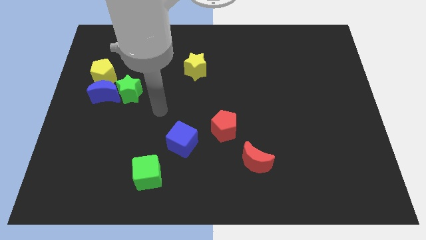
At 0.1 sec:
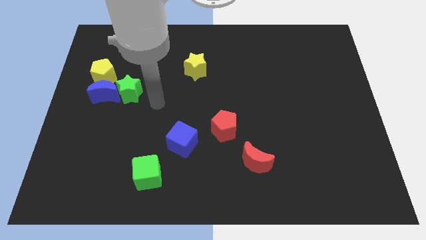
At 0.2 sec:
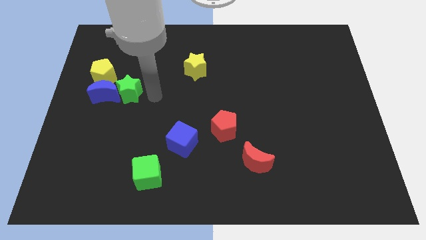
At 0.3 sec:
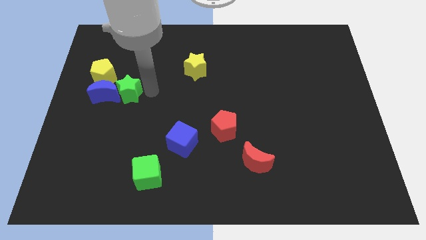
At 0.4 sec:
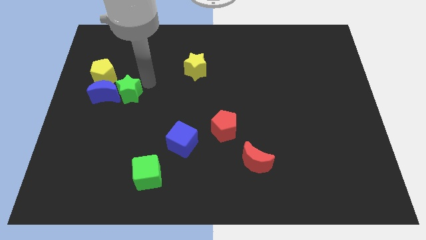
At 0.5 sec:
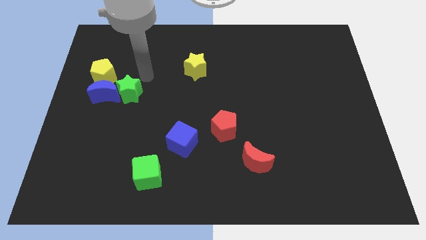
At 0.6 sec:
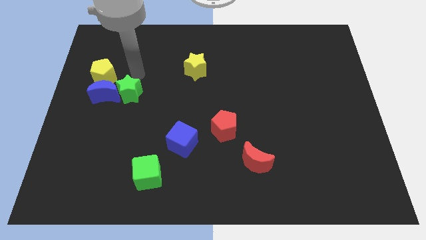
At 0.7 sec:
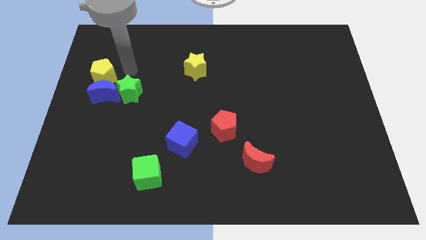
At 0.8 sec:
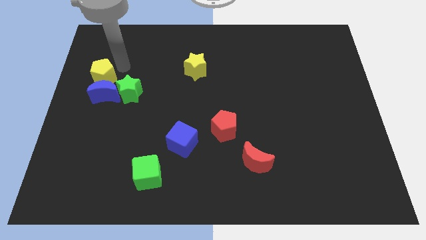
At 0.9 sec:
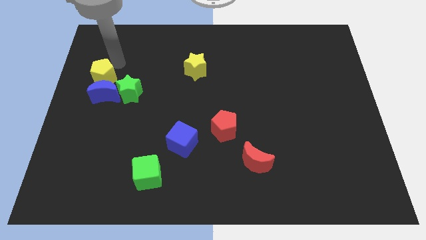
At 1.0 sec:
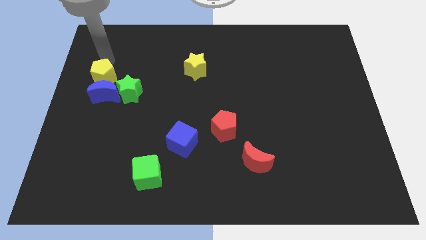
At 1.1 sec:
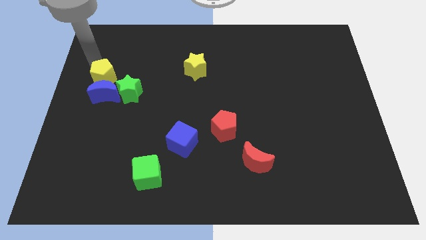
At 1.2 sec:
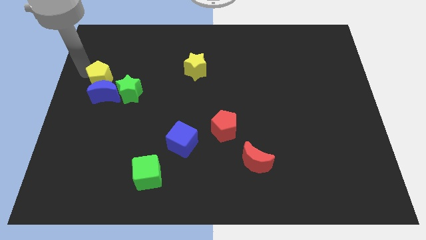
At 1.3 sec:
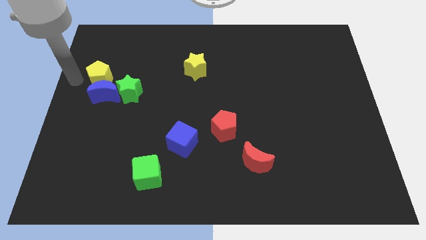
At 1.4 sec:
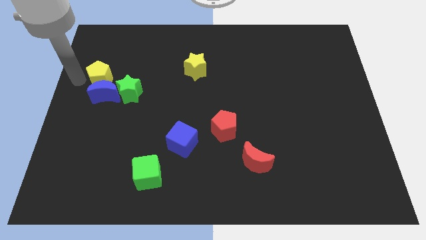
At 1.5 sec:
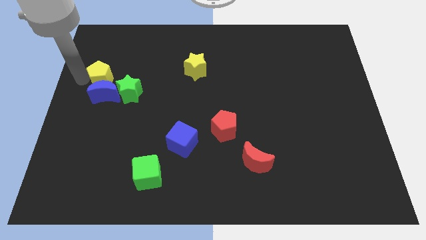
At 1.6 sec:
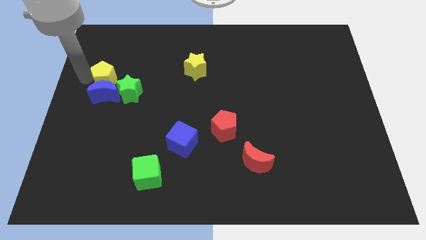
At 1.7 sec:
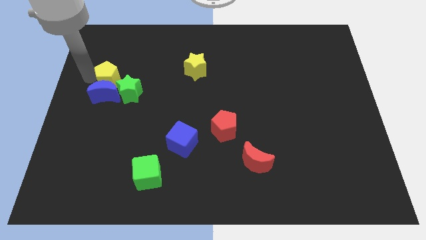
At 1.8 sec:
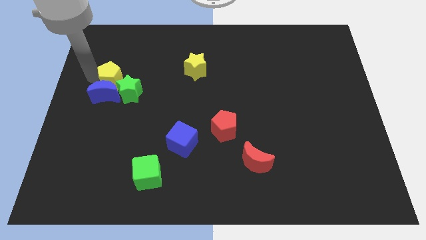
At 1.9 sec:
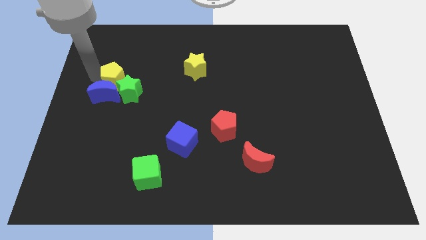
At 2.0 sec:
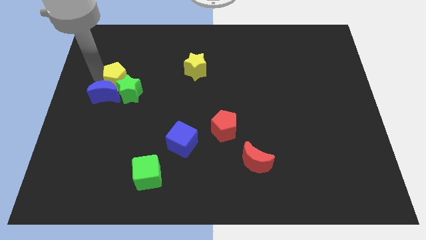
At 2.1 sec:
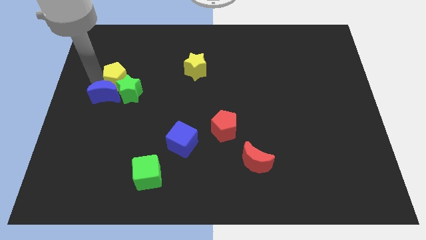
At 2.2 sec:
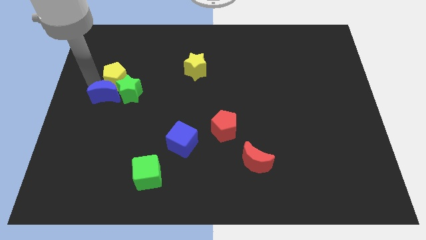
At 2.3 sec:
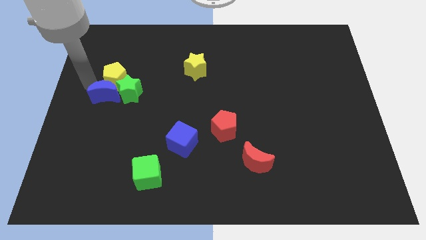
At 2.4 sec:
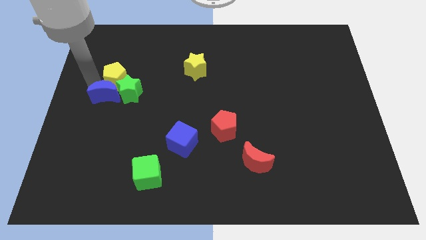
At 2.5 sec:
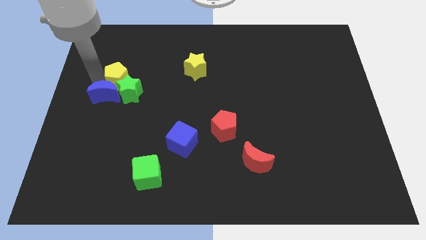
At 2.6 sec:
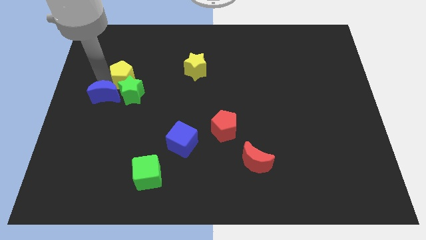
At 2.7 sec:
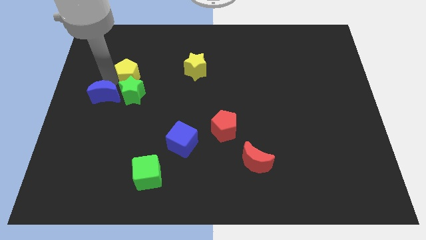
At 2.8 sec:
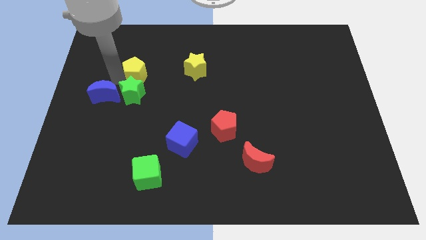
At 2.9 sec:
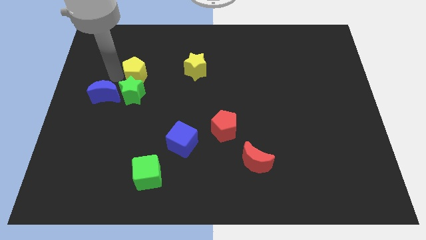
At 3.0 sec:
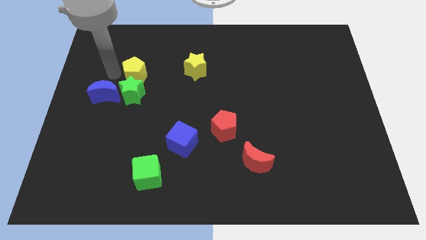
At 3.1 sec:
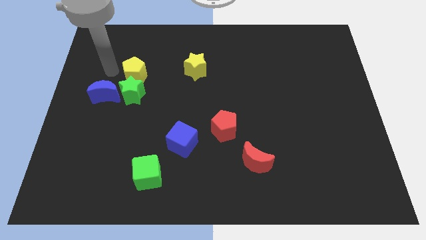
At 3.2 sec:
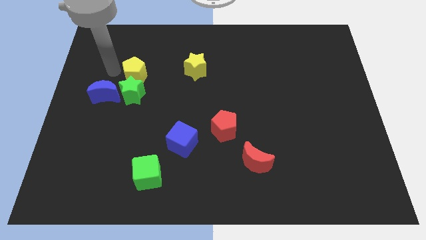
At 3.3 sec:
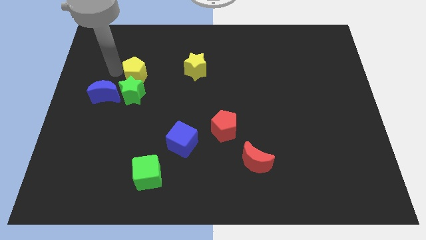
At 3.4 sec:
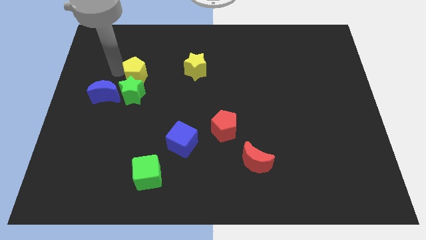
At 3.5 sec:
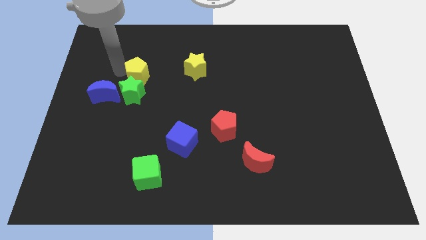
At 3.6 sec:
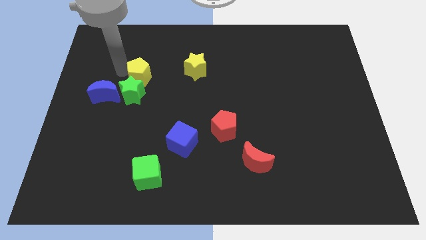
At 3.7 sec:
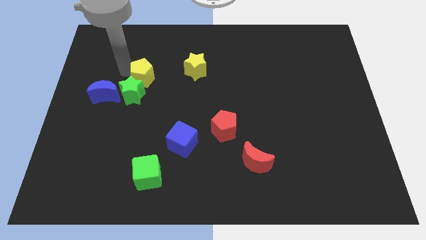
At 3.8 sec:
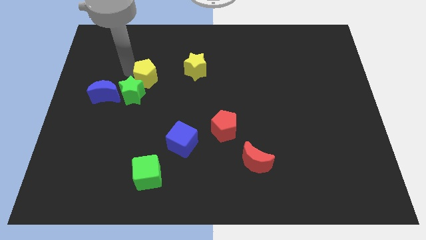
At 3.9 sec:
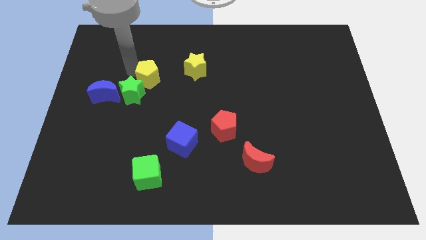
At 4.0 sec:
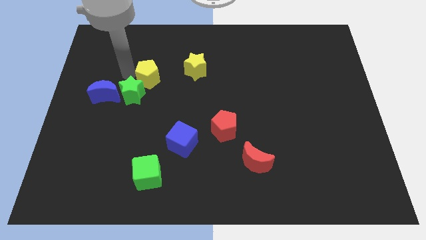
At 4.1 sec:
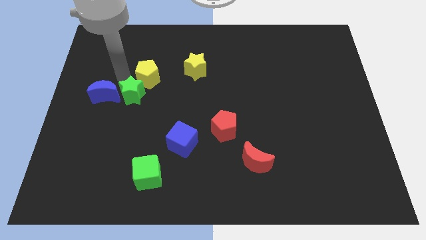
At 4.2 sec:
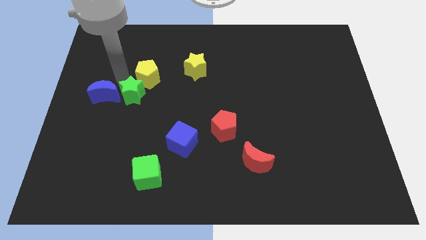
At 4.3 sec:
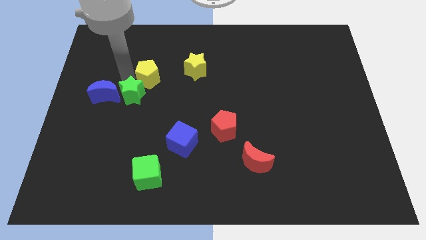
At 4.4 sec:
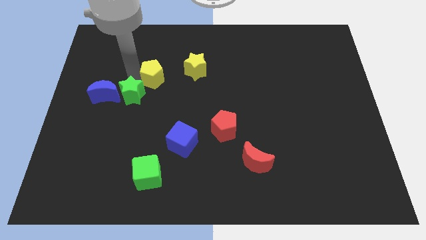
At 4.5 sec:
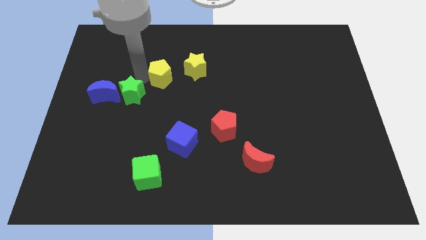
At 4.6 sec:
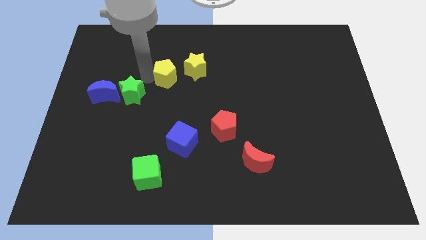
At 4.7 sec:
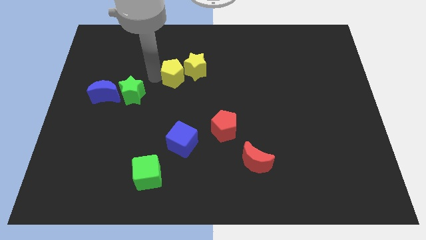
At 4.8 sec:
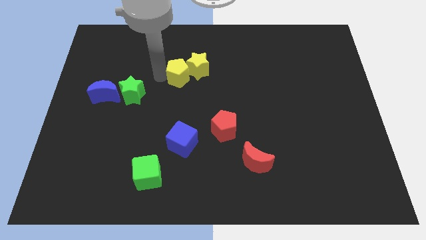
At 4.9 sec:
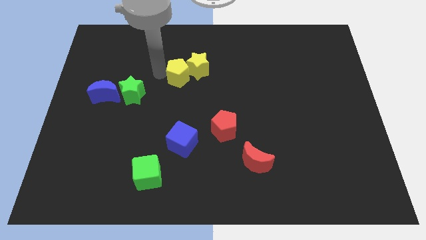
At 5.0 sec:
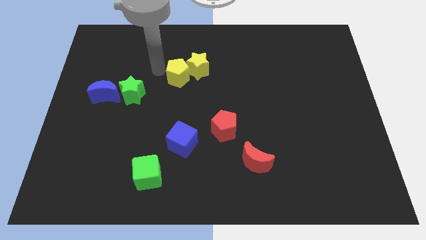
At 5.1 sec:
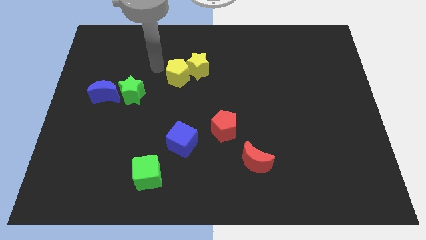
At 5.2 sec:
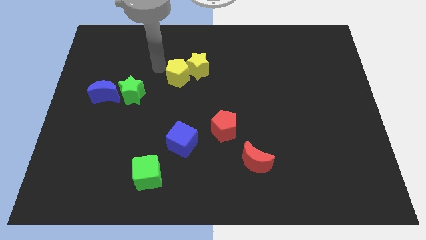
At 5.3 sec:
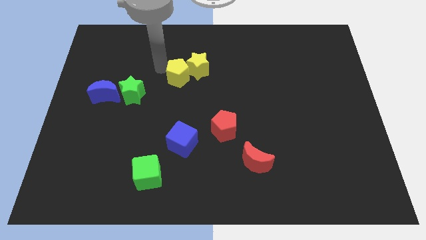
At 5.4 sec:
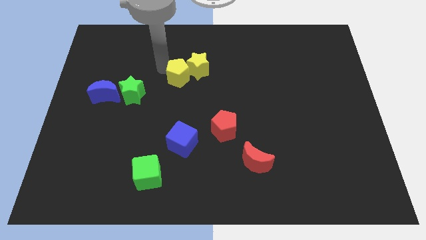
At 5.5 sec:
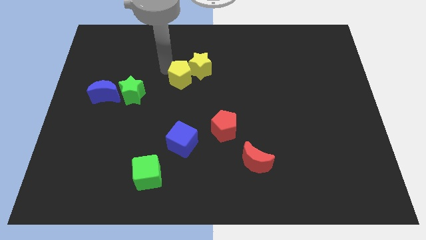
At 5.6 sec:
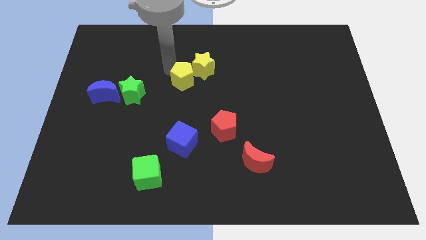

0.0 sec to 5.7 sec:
push the yellow pentagon to the right

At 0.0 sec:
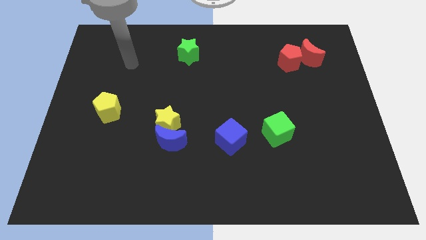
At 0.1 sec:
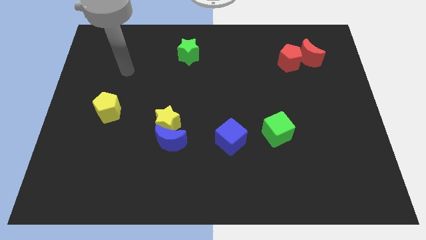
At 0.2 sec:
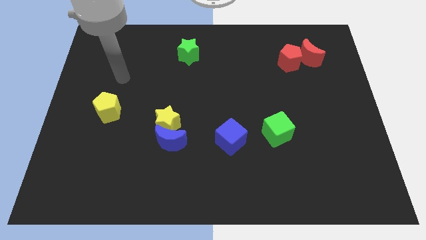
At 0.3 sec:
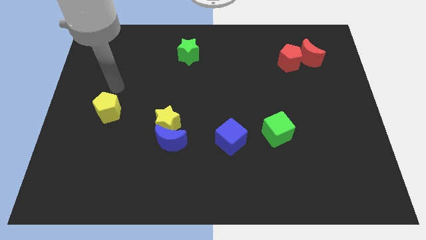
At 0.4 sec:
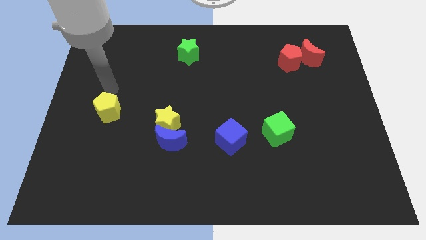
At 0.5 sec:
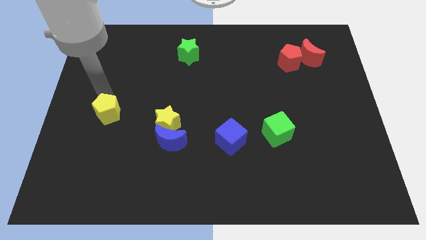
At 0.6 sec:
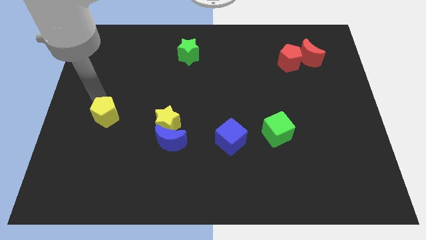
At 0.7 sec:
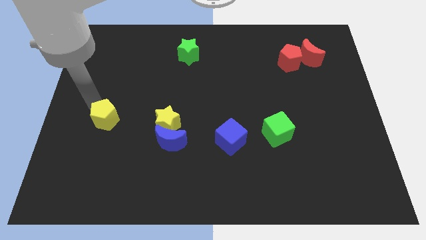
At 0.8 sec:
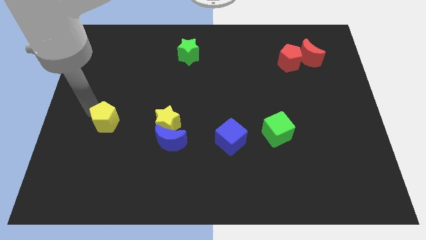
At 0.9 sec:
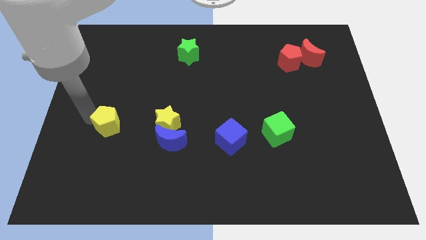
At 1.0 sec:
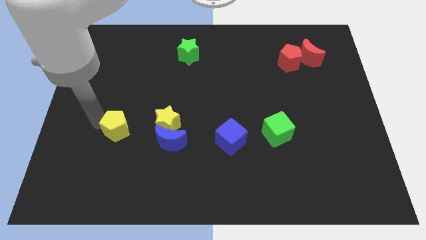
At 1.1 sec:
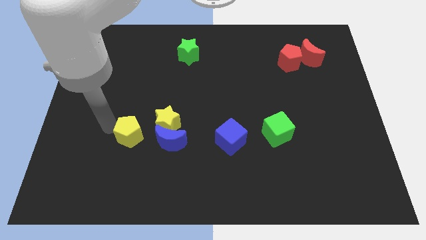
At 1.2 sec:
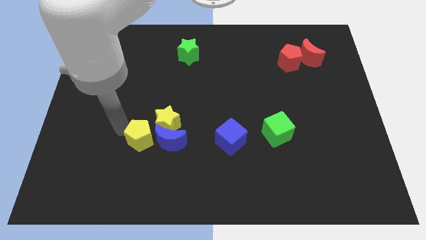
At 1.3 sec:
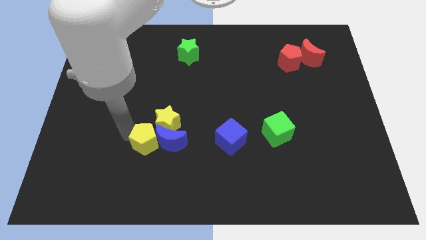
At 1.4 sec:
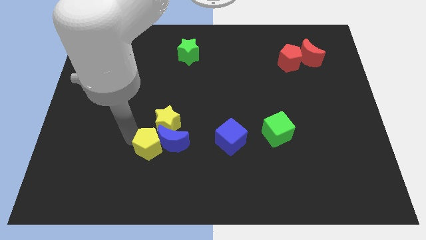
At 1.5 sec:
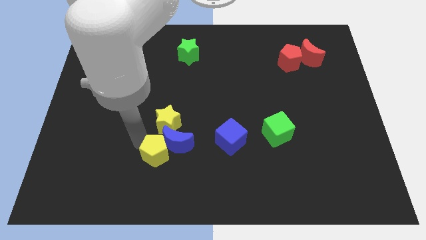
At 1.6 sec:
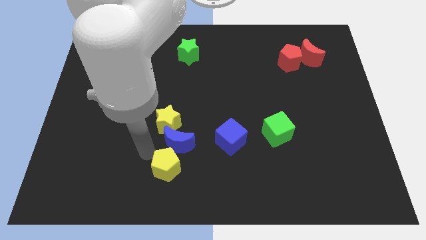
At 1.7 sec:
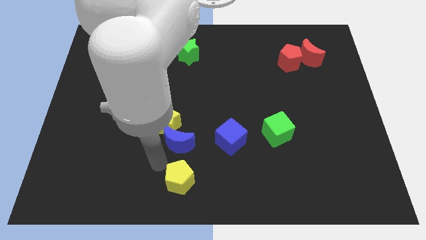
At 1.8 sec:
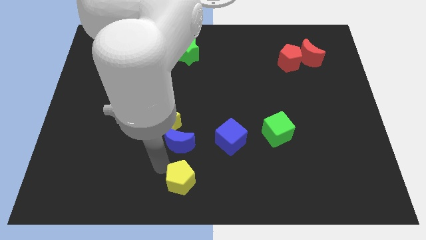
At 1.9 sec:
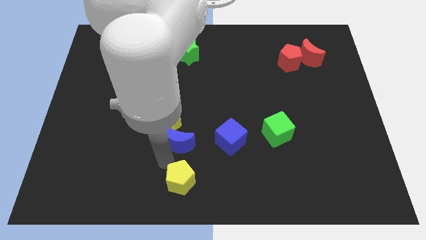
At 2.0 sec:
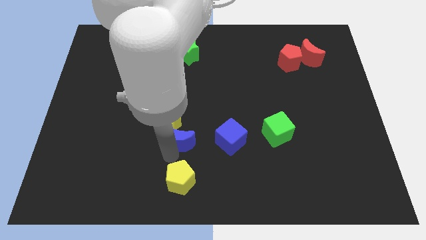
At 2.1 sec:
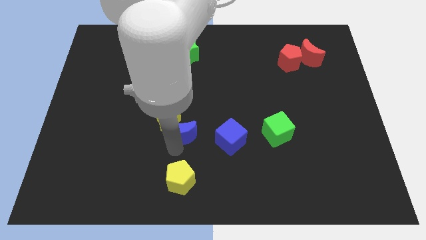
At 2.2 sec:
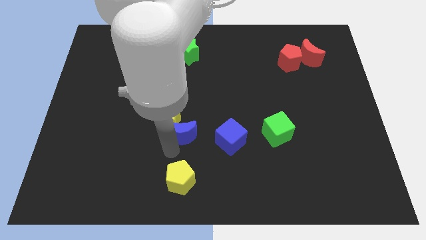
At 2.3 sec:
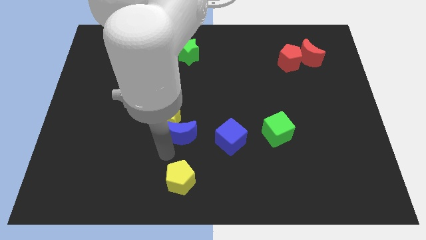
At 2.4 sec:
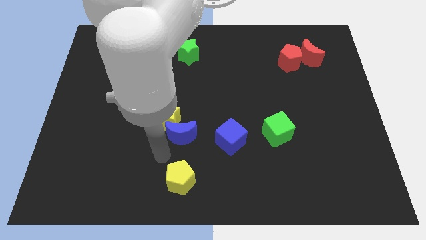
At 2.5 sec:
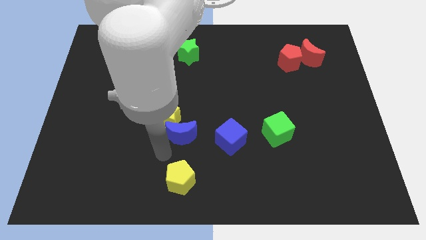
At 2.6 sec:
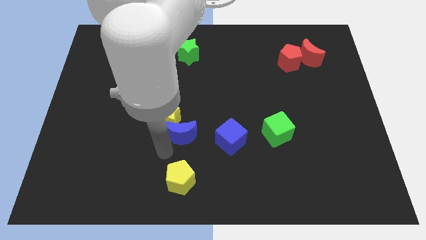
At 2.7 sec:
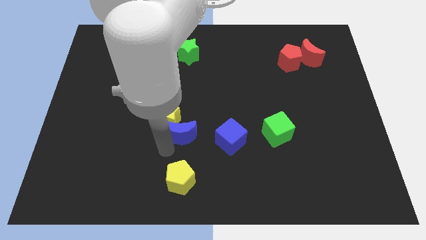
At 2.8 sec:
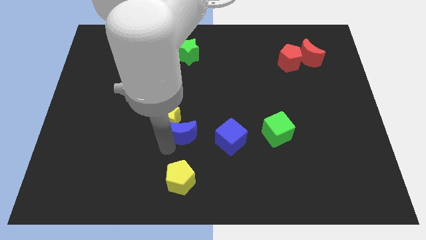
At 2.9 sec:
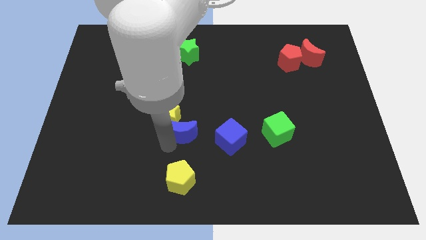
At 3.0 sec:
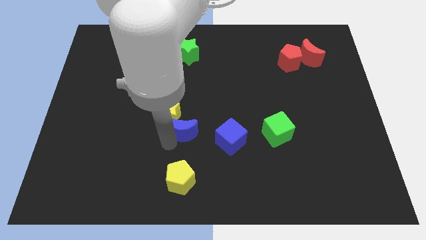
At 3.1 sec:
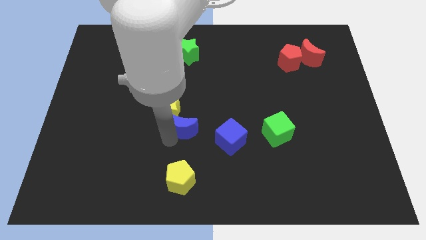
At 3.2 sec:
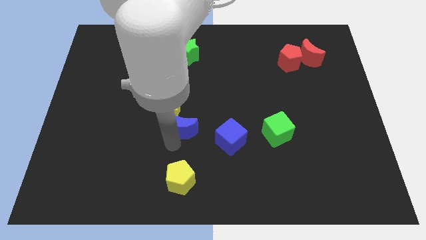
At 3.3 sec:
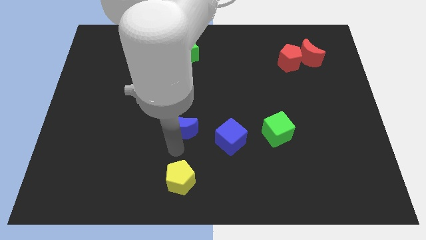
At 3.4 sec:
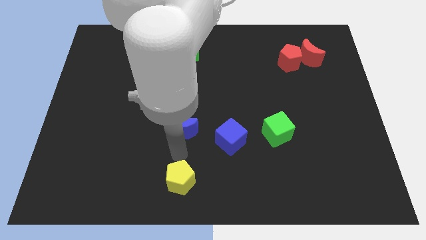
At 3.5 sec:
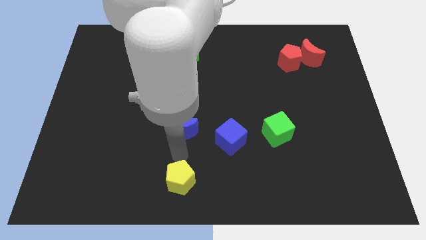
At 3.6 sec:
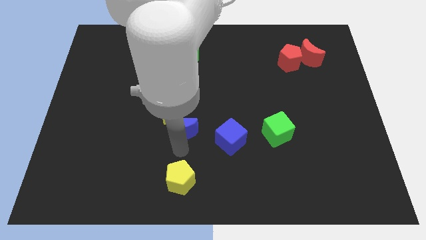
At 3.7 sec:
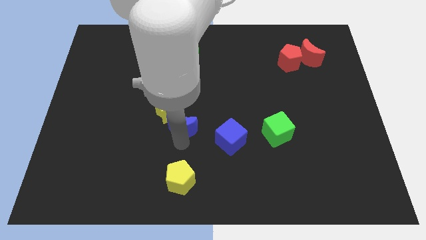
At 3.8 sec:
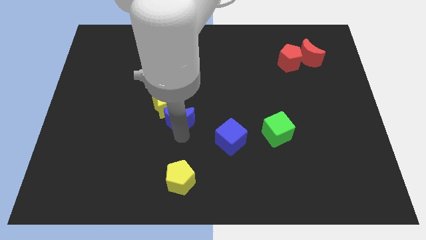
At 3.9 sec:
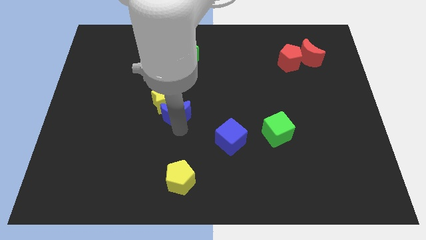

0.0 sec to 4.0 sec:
slide the blue moon slightly up
